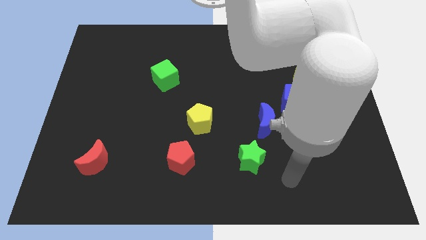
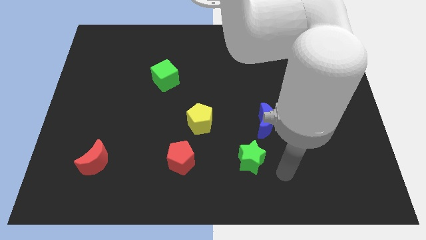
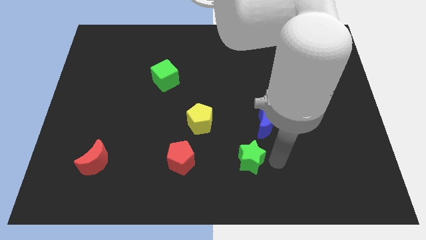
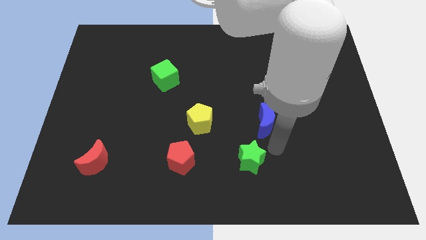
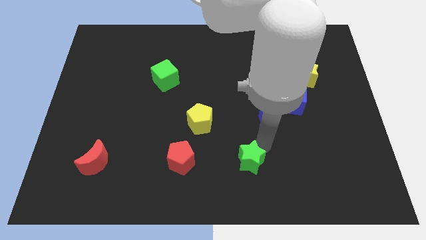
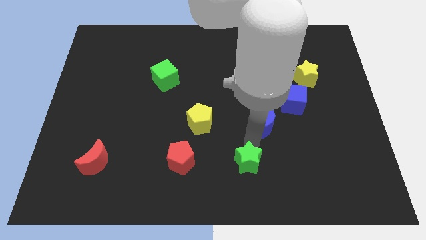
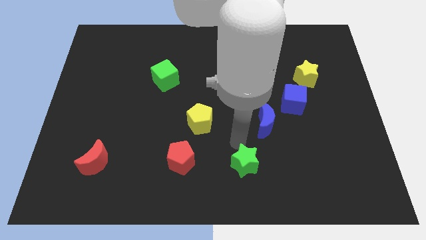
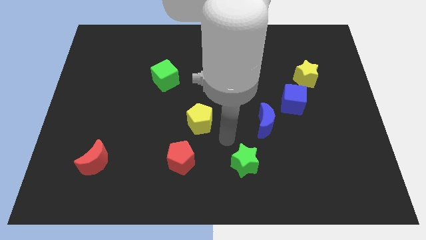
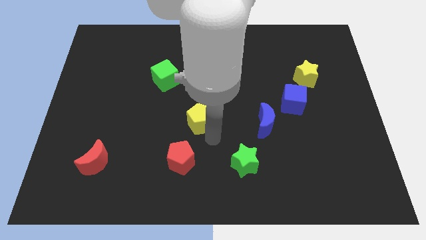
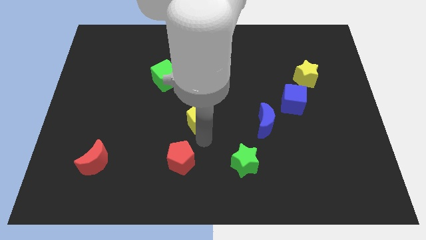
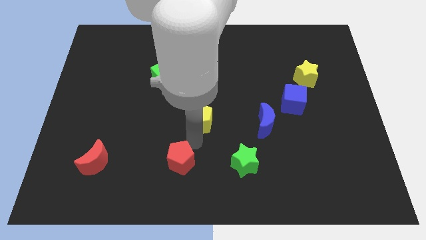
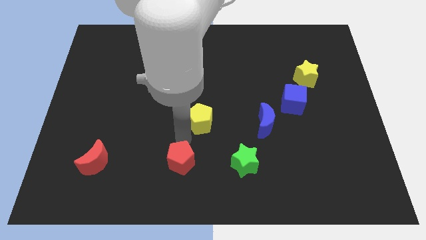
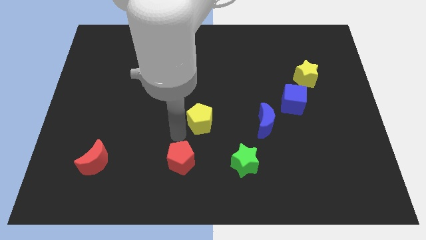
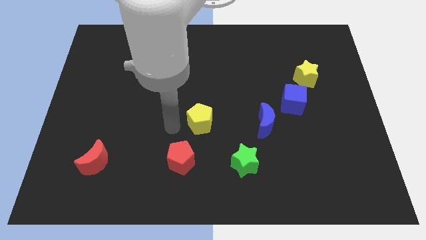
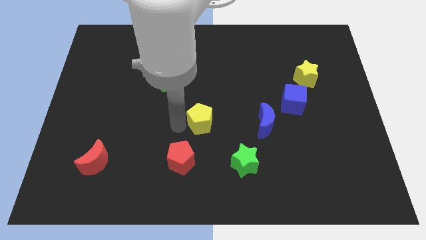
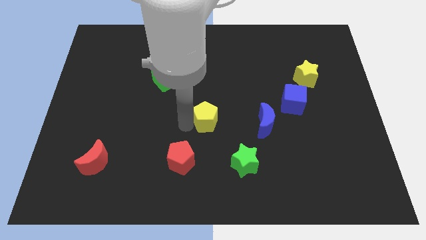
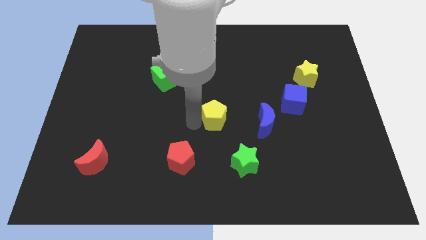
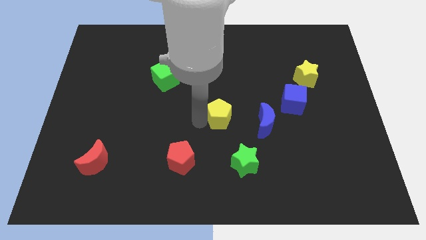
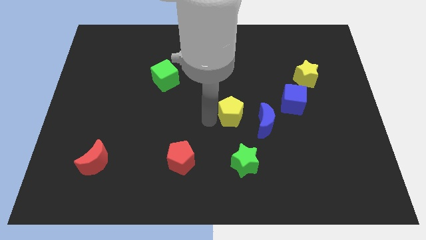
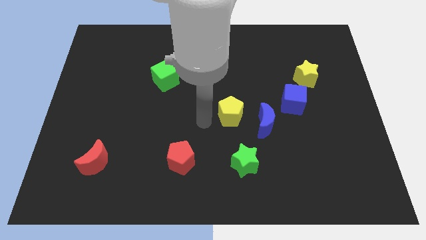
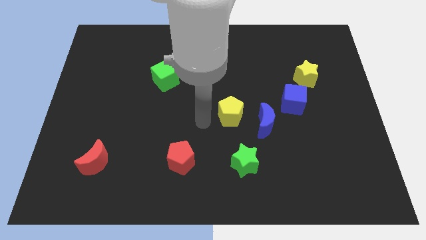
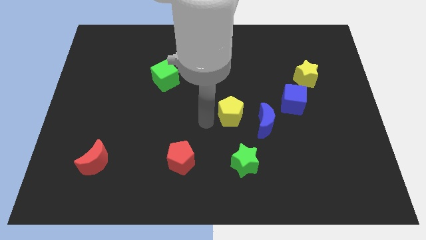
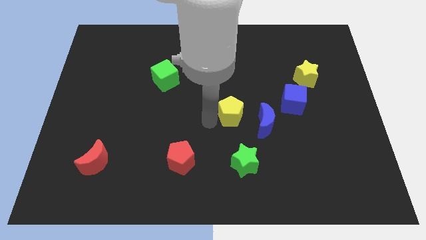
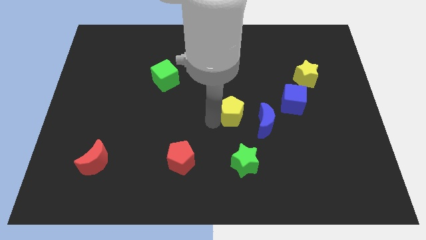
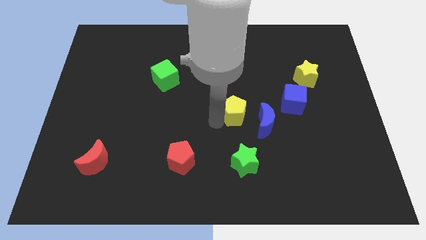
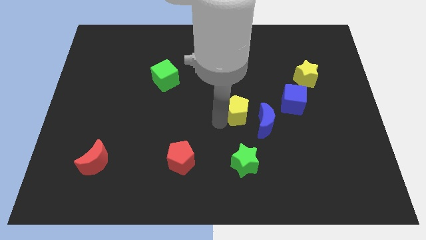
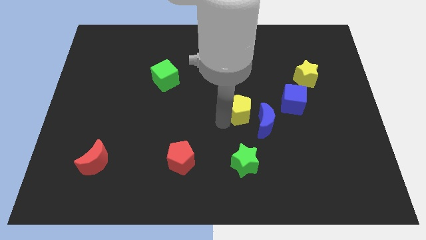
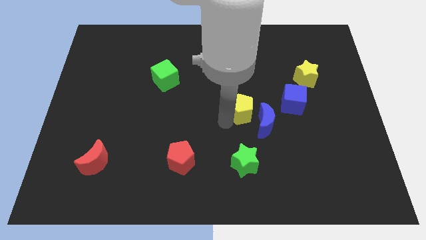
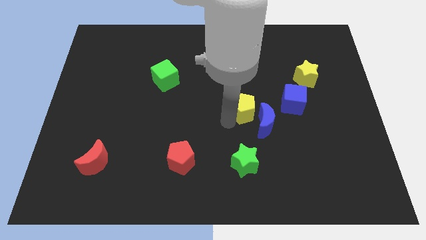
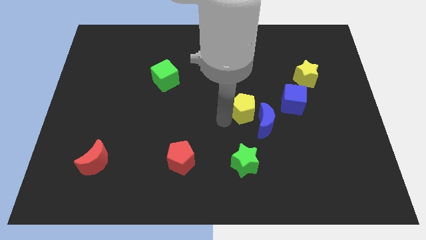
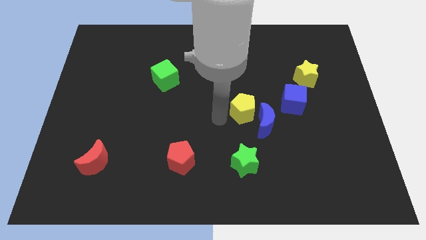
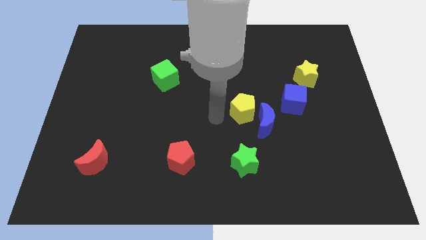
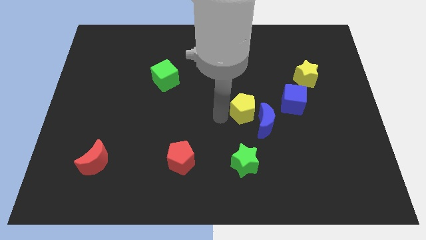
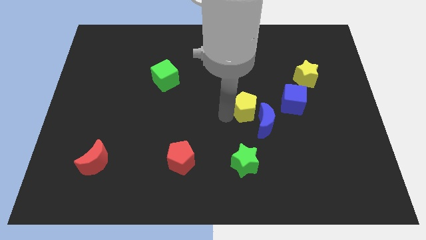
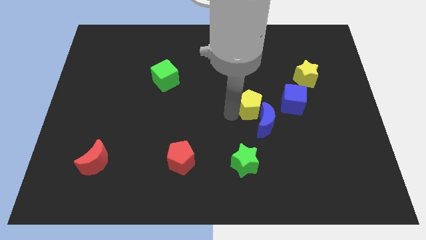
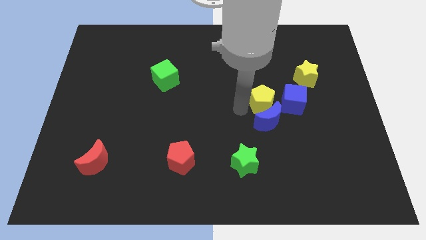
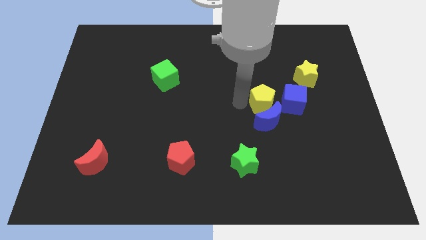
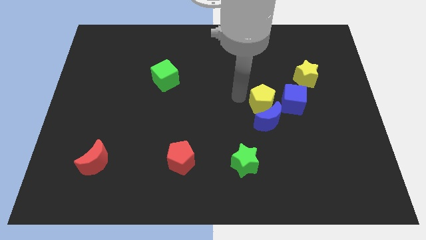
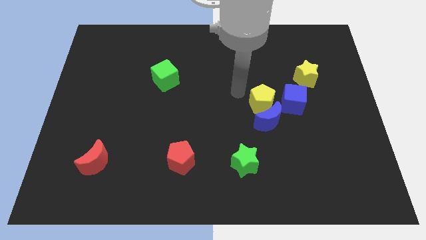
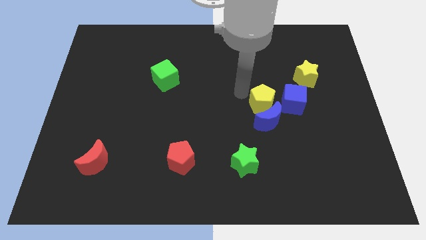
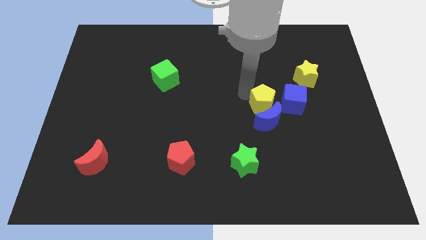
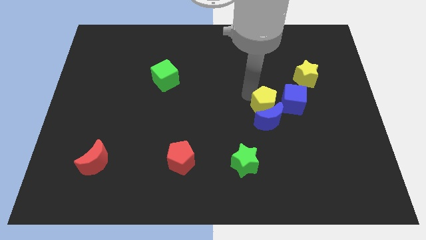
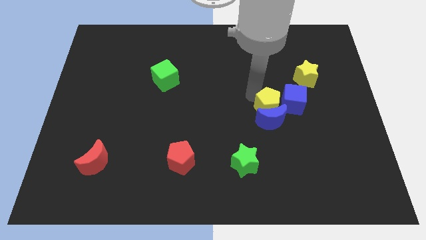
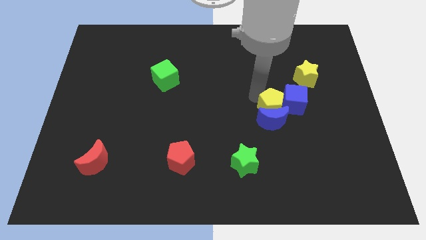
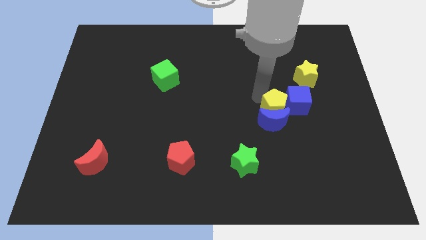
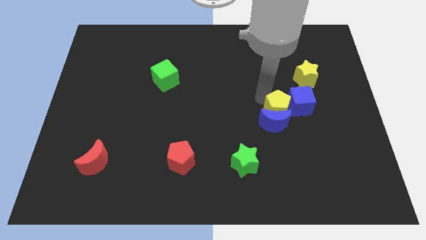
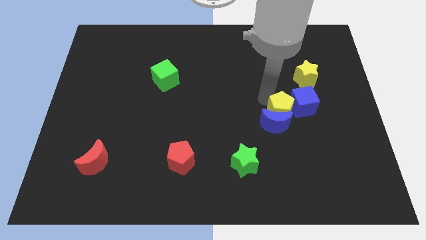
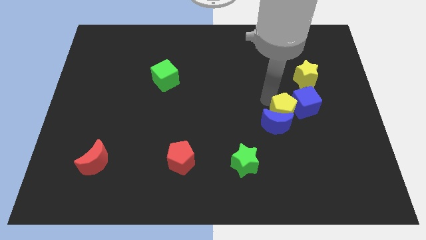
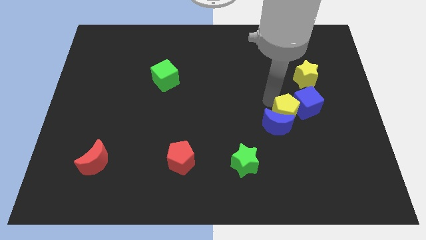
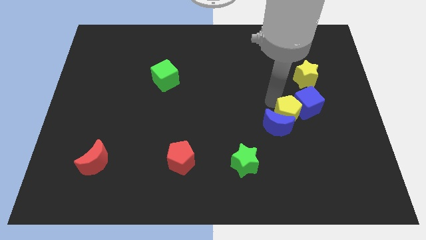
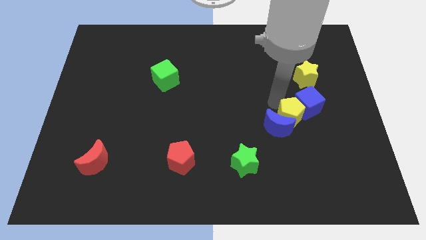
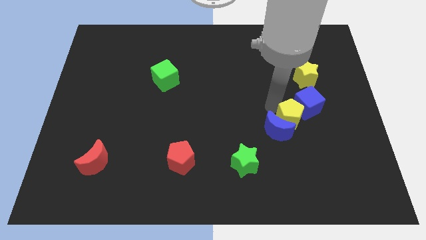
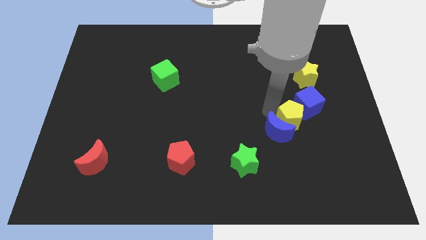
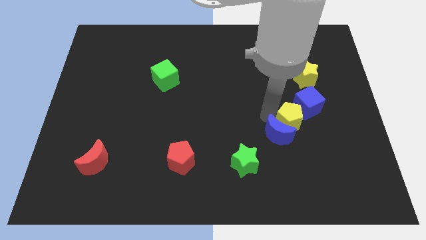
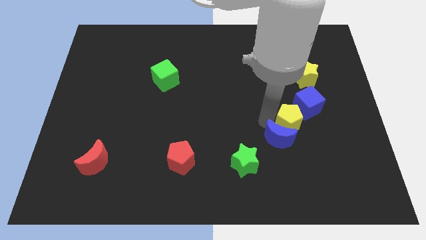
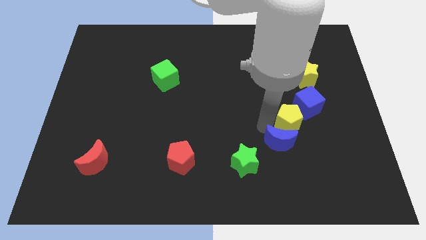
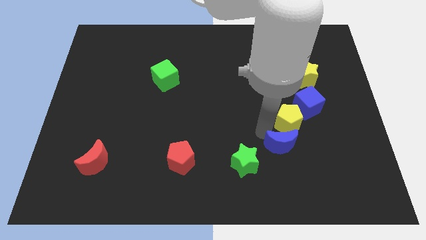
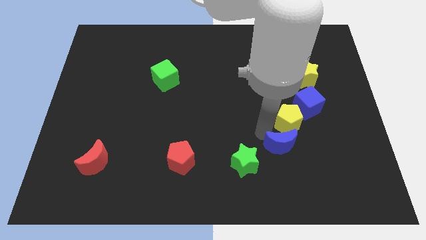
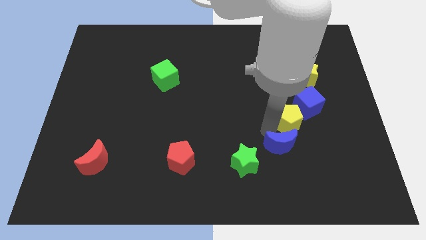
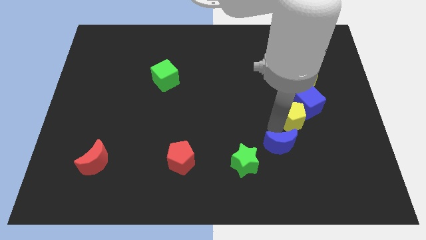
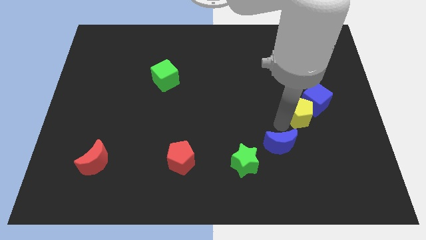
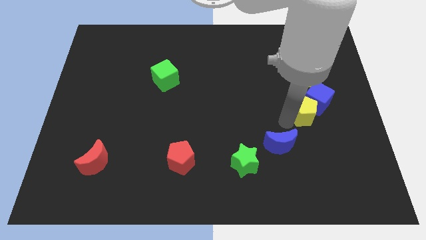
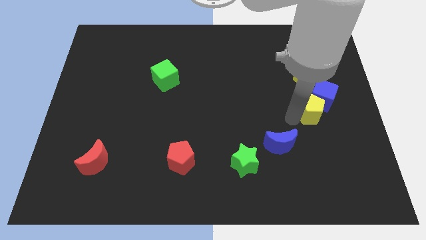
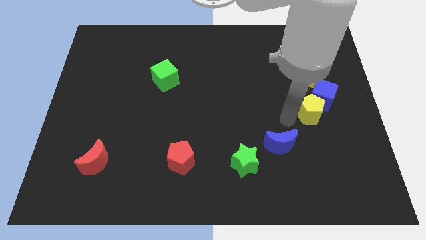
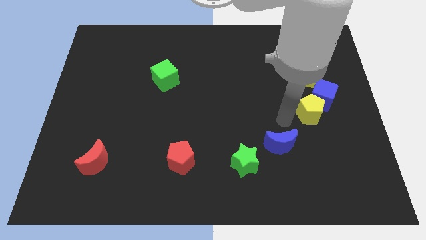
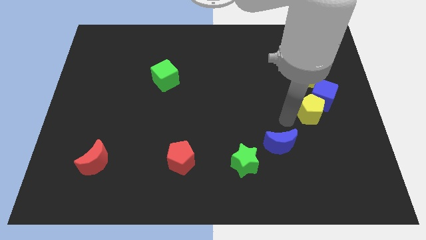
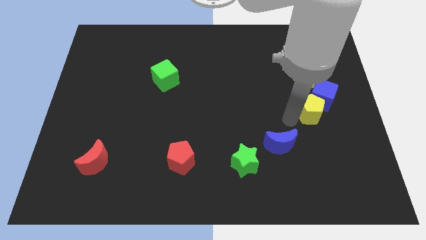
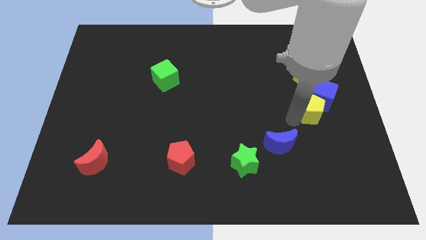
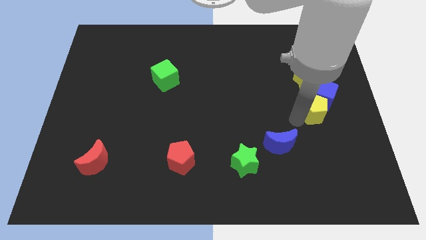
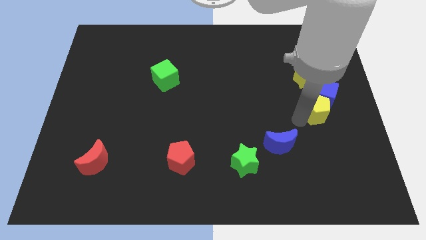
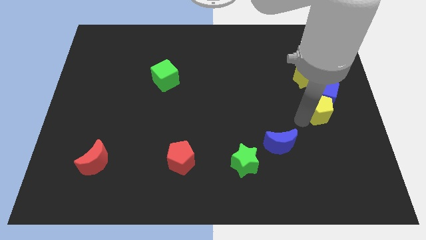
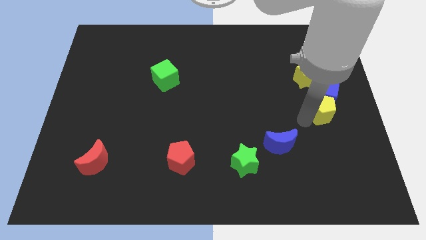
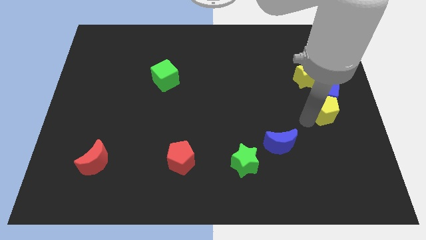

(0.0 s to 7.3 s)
move the yellow pentagon to the right side of the board
